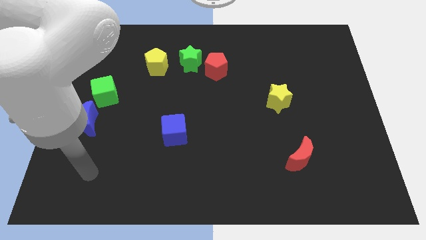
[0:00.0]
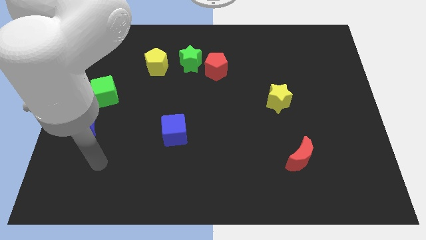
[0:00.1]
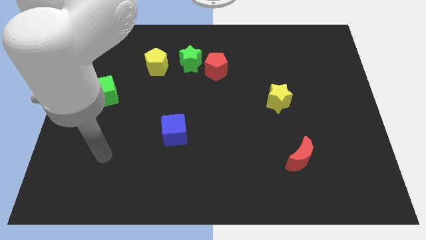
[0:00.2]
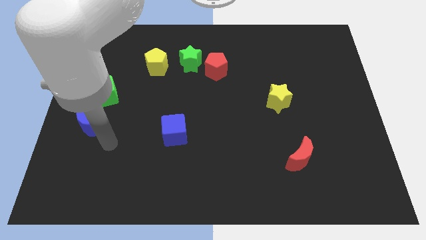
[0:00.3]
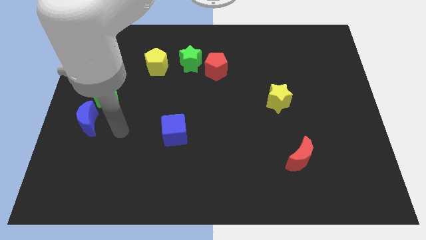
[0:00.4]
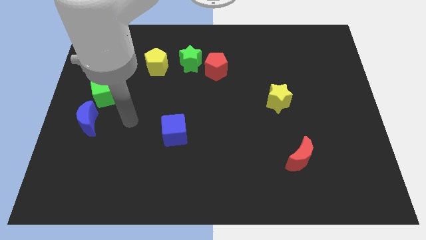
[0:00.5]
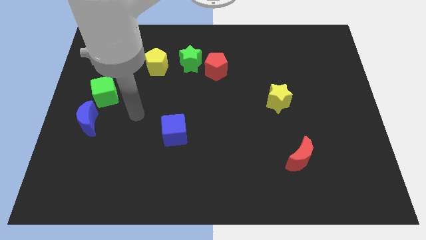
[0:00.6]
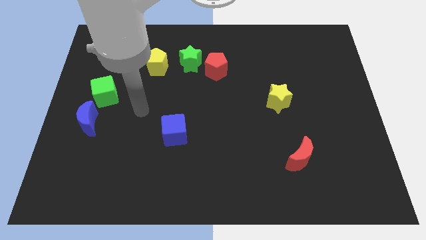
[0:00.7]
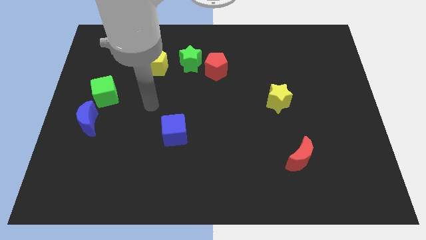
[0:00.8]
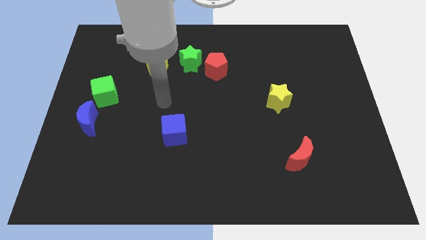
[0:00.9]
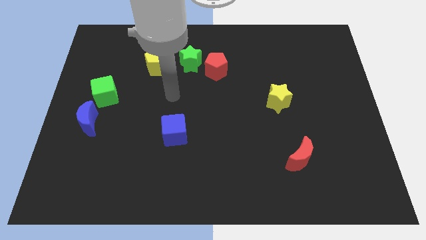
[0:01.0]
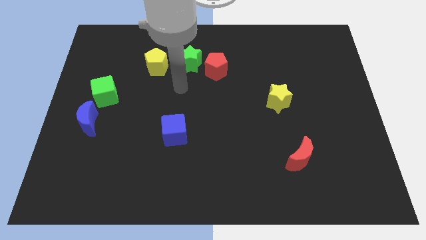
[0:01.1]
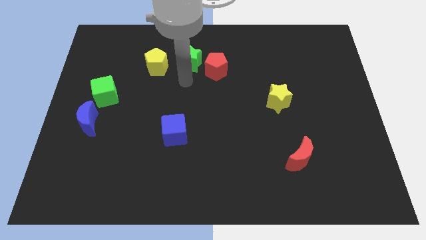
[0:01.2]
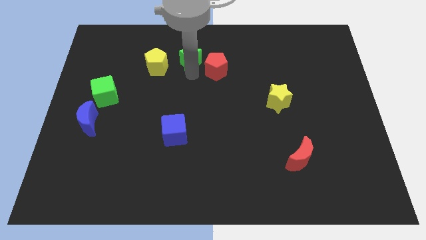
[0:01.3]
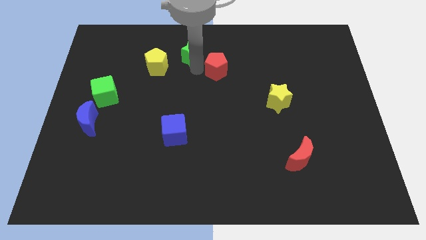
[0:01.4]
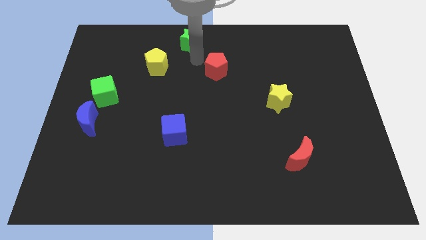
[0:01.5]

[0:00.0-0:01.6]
pull the red pentagon apart from the green star

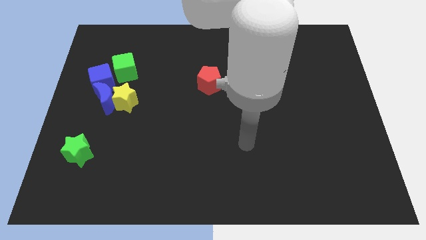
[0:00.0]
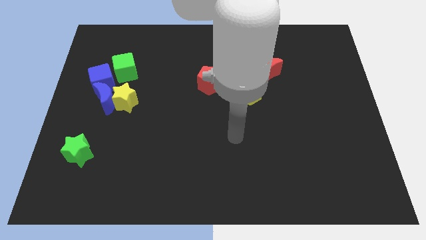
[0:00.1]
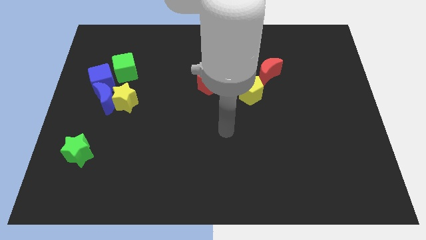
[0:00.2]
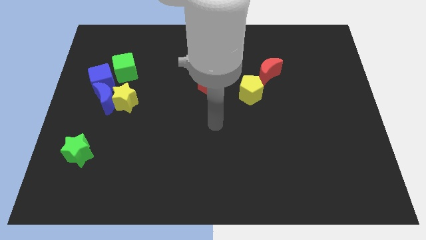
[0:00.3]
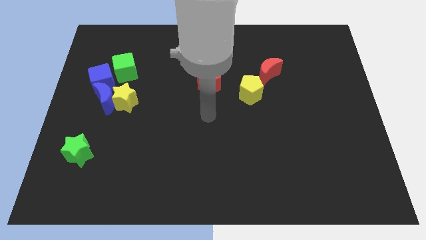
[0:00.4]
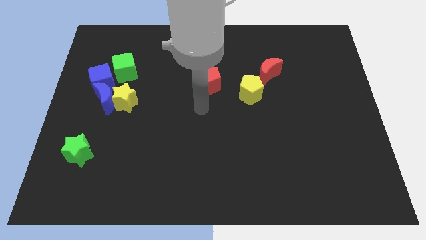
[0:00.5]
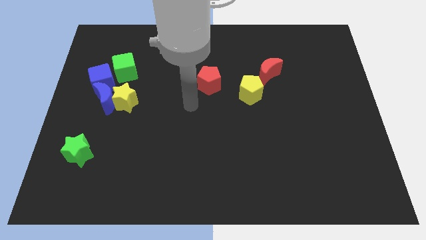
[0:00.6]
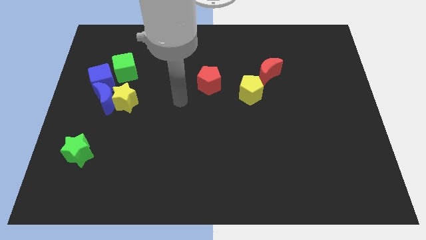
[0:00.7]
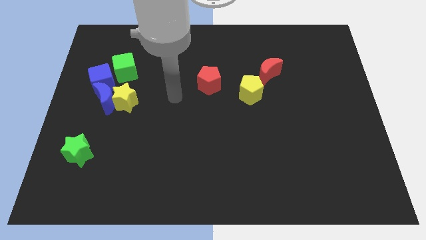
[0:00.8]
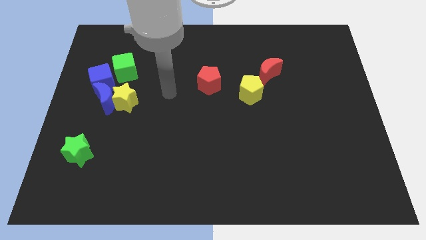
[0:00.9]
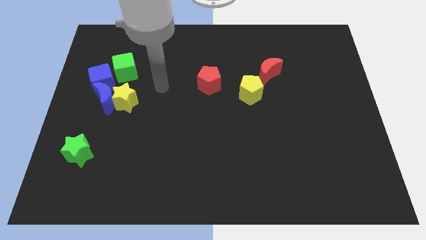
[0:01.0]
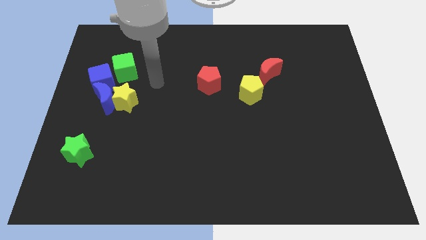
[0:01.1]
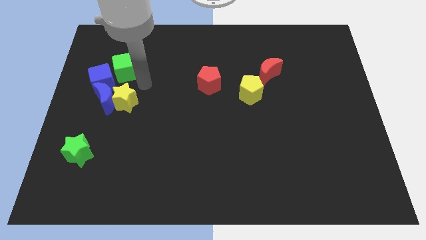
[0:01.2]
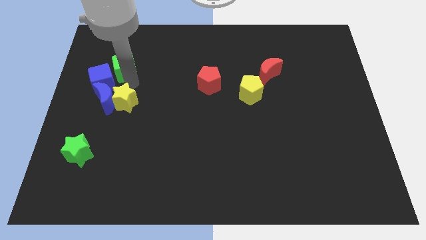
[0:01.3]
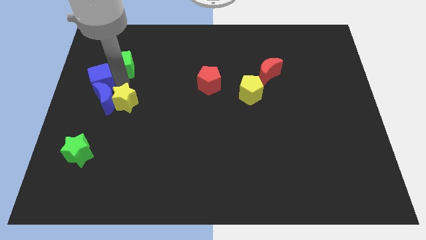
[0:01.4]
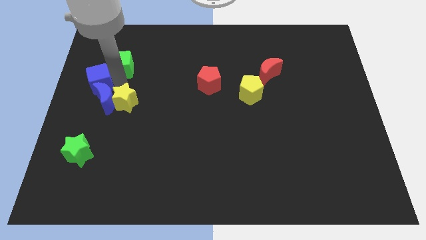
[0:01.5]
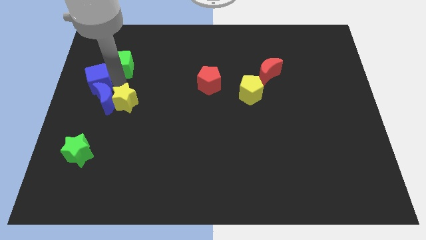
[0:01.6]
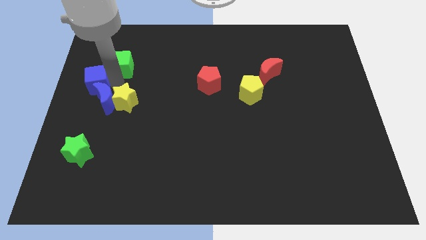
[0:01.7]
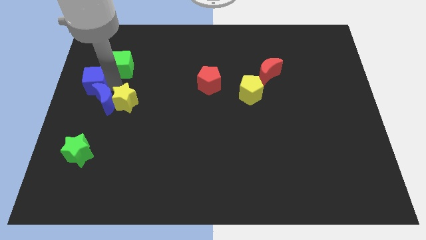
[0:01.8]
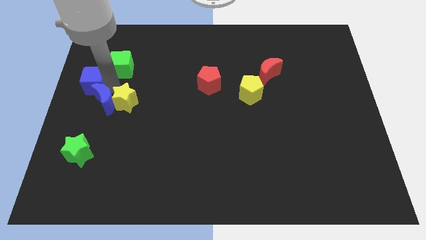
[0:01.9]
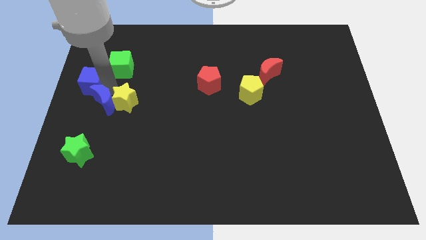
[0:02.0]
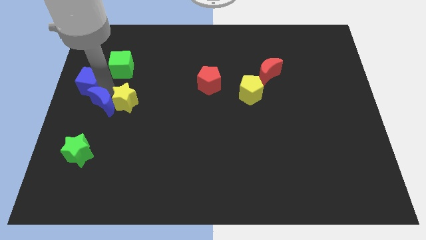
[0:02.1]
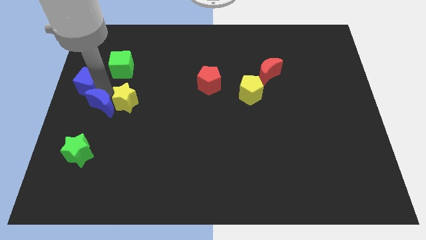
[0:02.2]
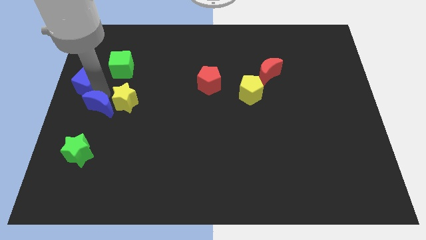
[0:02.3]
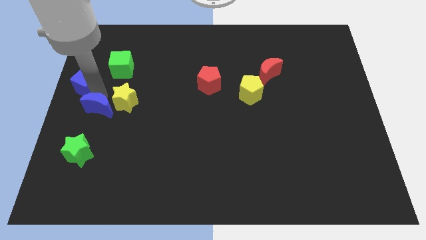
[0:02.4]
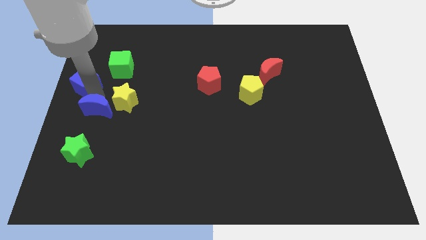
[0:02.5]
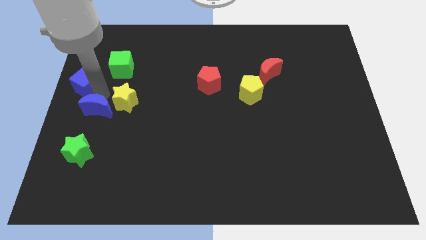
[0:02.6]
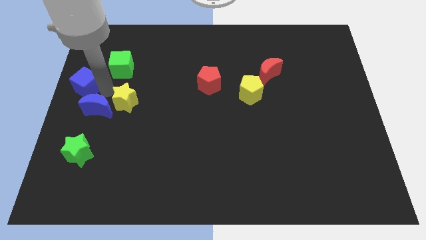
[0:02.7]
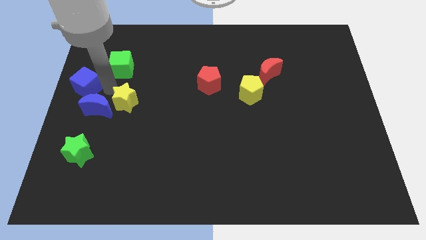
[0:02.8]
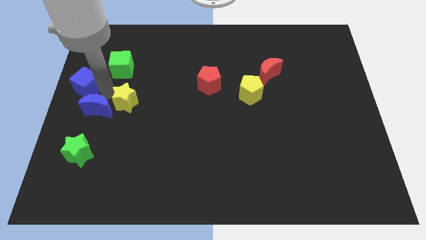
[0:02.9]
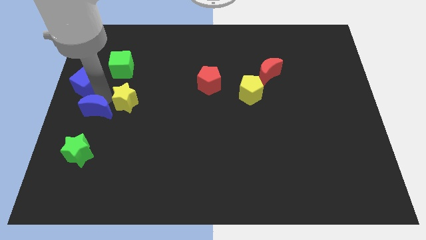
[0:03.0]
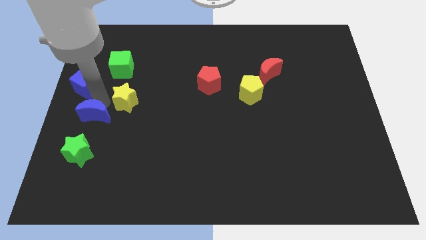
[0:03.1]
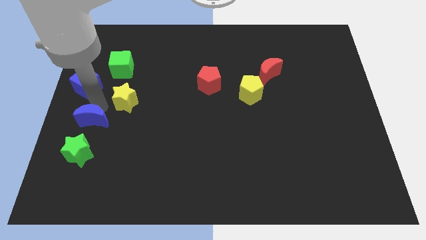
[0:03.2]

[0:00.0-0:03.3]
pull the blue moon apart from the group of blocks

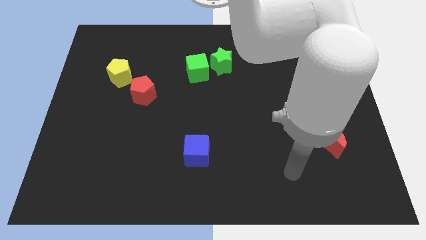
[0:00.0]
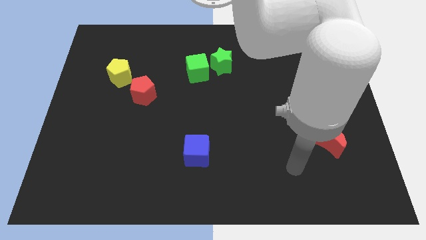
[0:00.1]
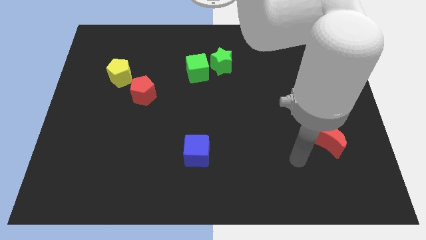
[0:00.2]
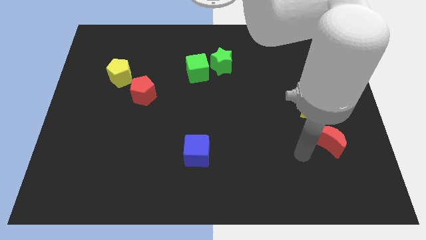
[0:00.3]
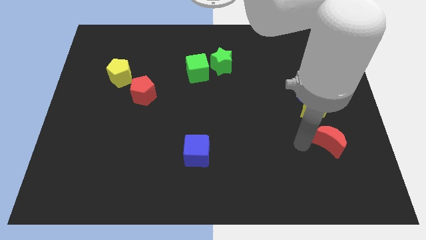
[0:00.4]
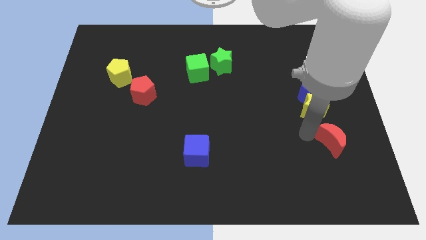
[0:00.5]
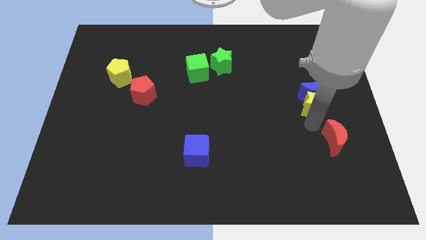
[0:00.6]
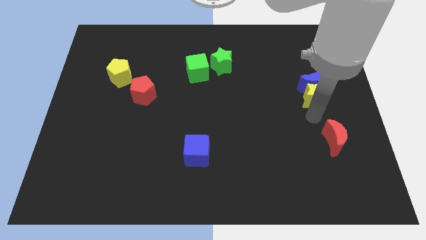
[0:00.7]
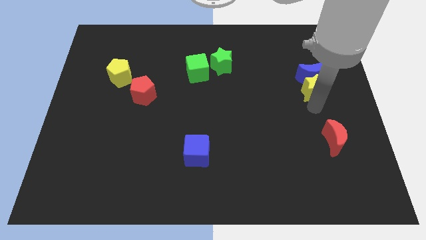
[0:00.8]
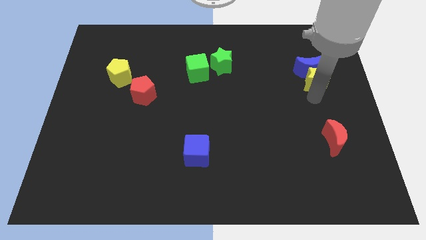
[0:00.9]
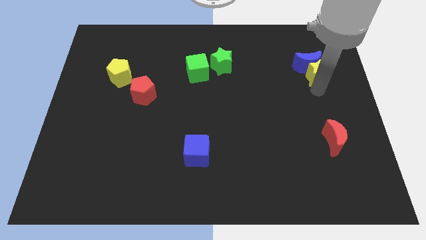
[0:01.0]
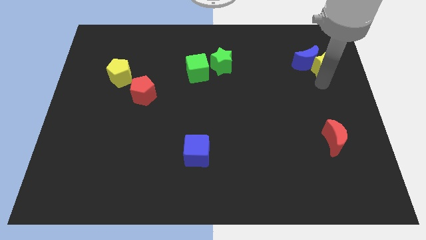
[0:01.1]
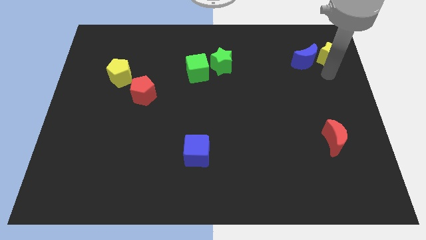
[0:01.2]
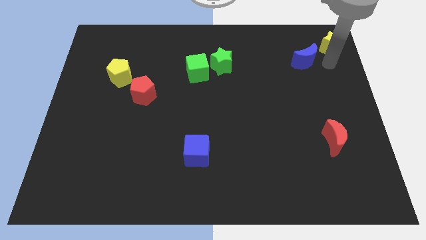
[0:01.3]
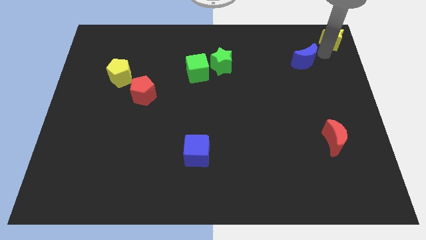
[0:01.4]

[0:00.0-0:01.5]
pull the blue moon apart from the yellow star

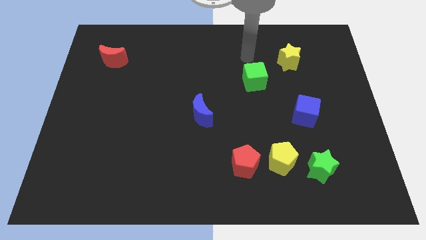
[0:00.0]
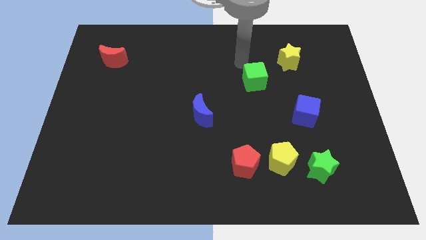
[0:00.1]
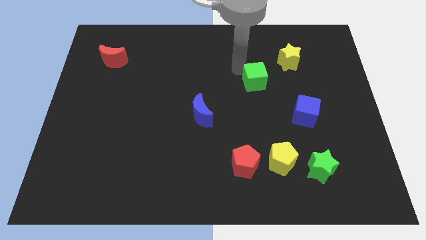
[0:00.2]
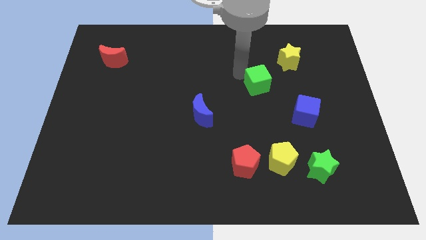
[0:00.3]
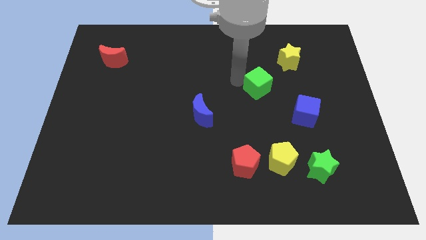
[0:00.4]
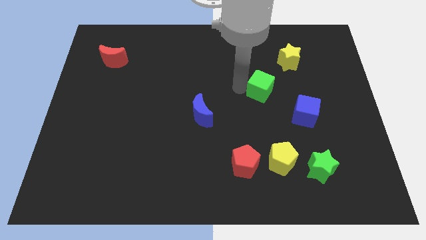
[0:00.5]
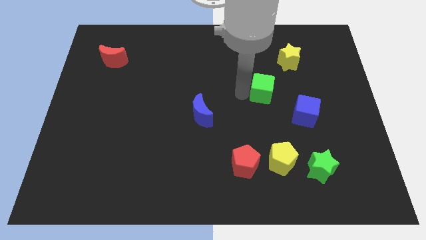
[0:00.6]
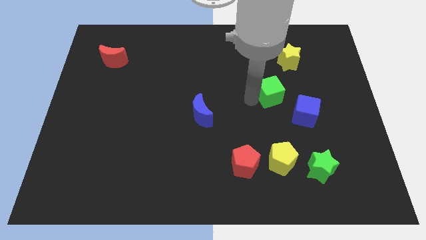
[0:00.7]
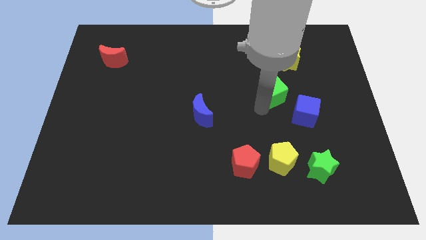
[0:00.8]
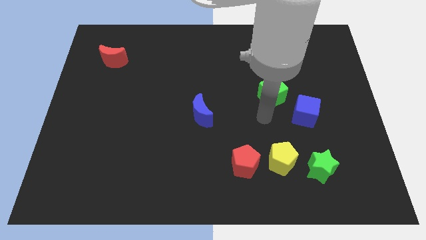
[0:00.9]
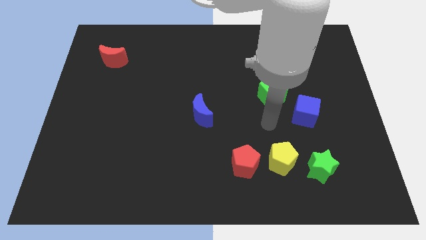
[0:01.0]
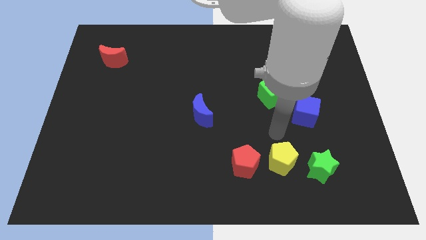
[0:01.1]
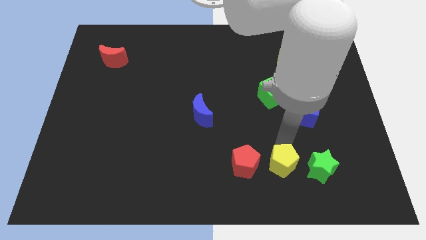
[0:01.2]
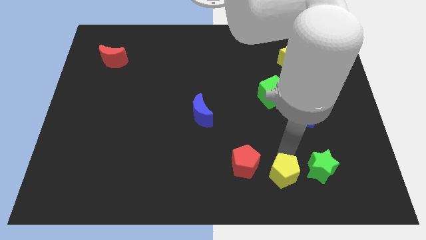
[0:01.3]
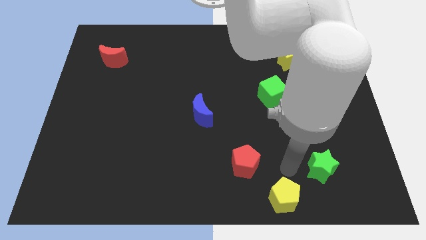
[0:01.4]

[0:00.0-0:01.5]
move the green star away from the yellow pentagon

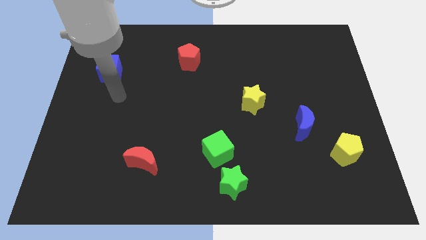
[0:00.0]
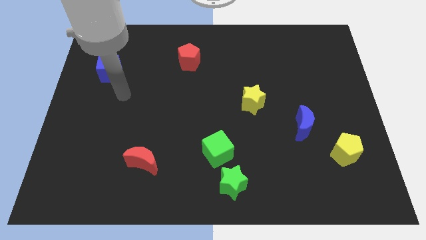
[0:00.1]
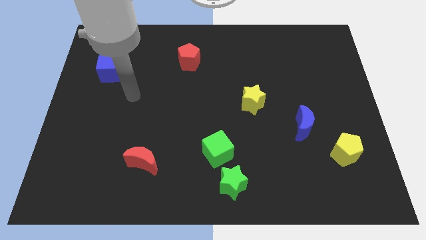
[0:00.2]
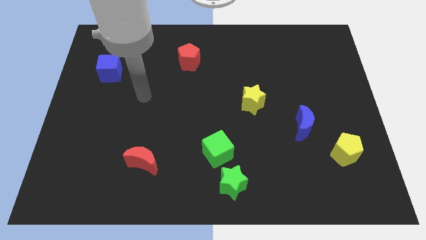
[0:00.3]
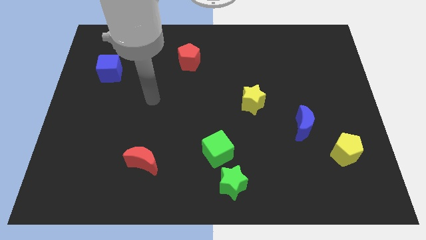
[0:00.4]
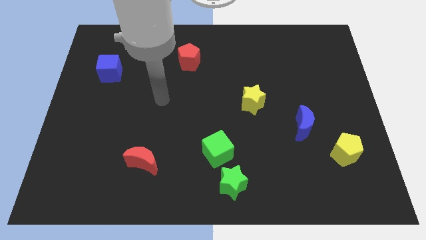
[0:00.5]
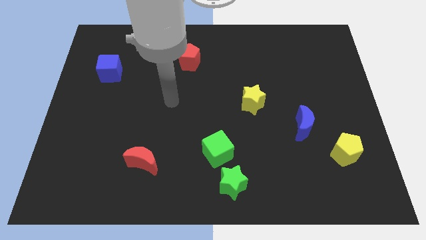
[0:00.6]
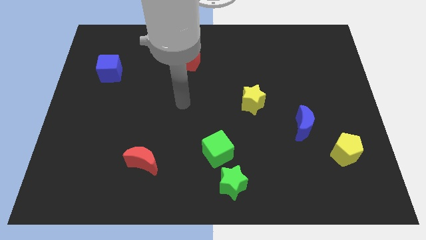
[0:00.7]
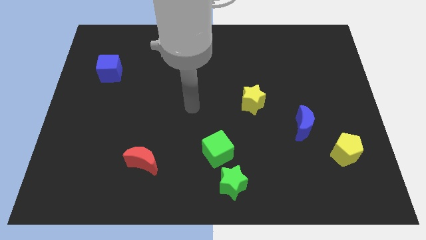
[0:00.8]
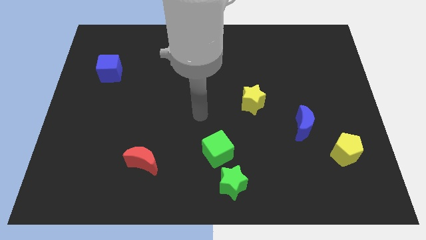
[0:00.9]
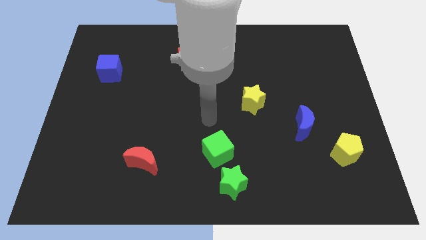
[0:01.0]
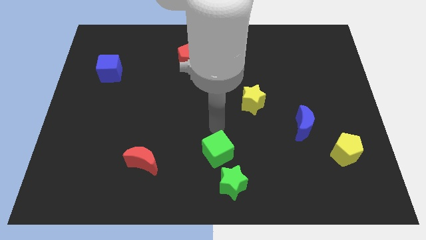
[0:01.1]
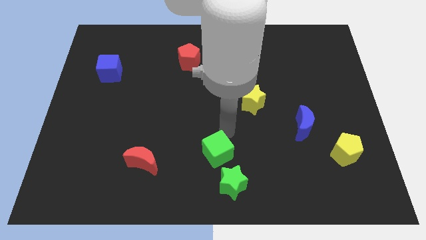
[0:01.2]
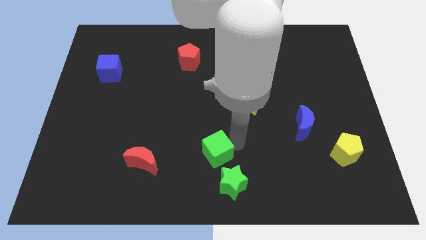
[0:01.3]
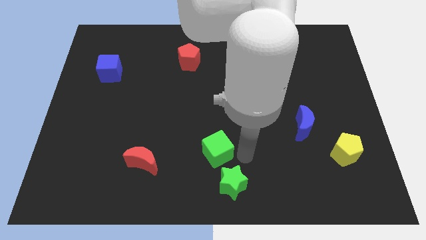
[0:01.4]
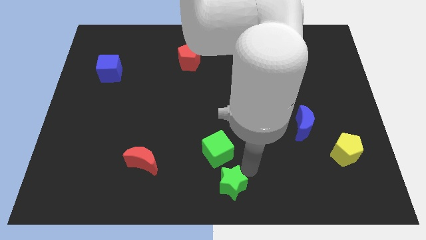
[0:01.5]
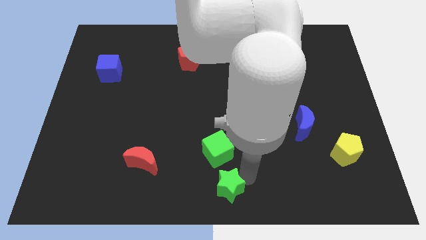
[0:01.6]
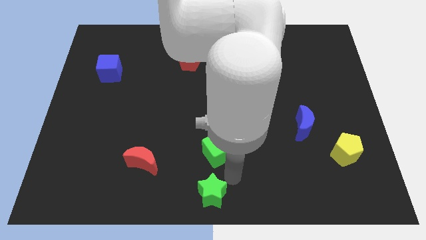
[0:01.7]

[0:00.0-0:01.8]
pull the green cube apart from the green star
